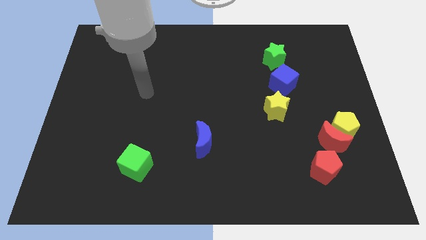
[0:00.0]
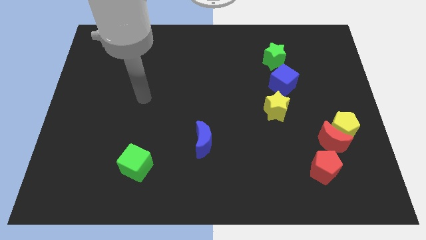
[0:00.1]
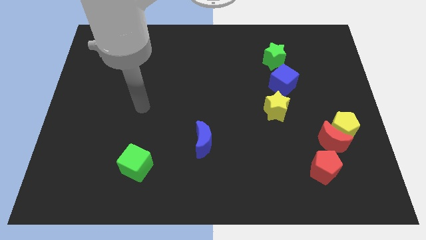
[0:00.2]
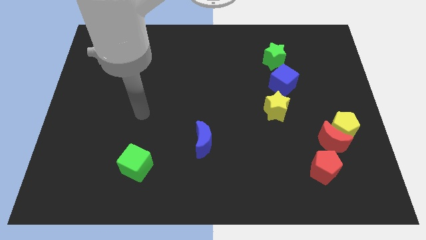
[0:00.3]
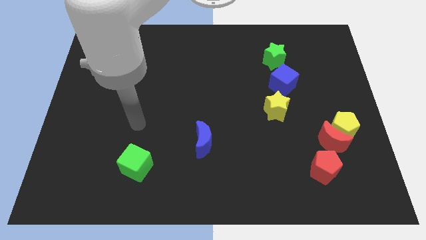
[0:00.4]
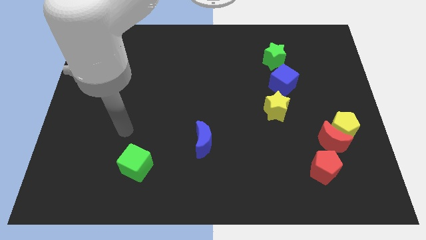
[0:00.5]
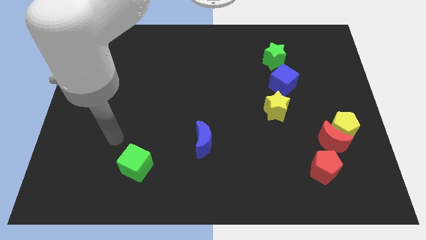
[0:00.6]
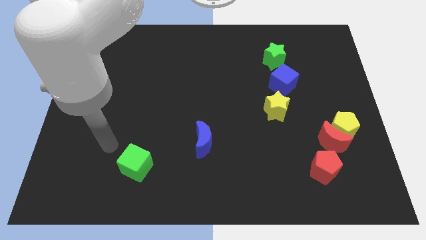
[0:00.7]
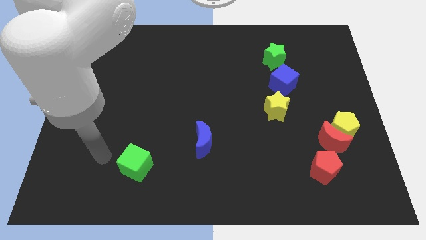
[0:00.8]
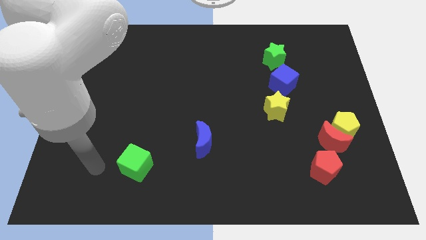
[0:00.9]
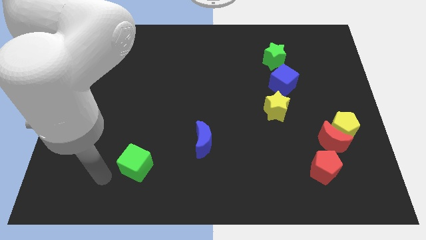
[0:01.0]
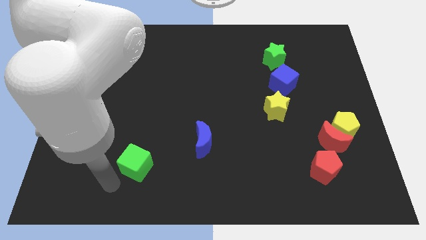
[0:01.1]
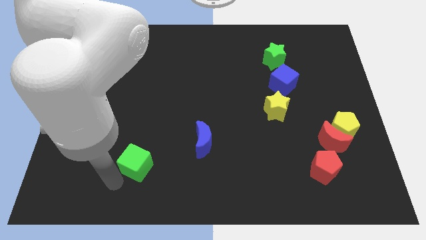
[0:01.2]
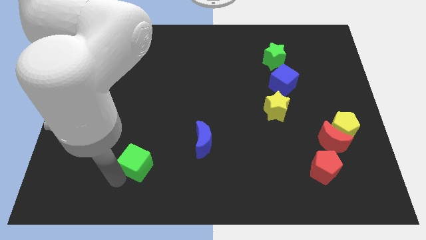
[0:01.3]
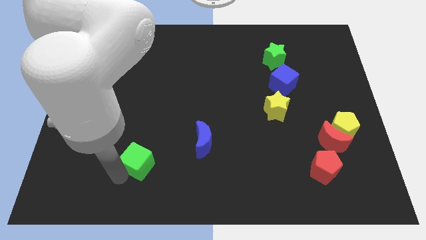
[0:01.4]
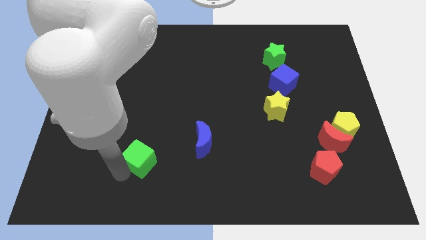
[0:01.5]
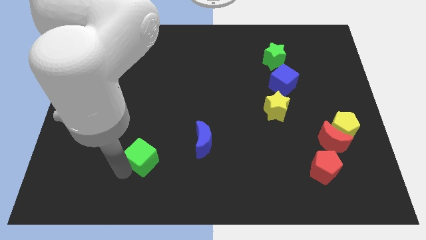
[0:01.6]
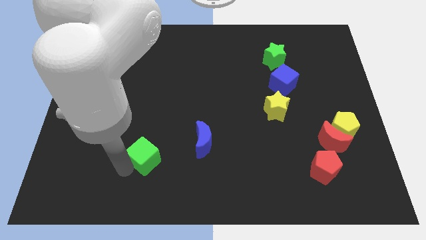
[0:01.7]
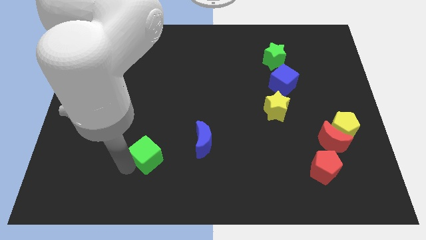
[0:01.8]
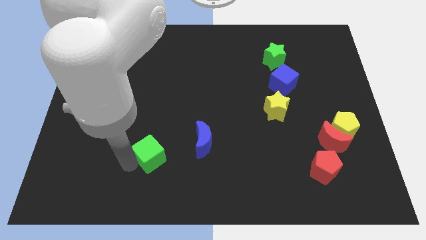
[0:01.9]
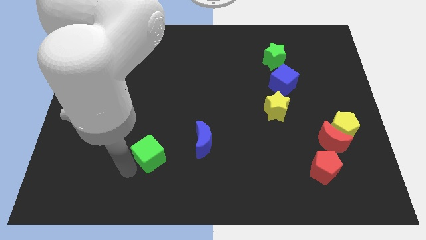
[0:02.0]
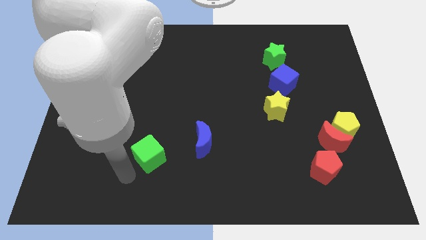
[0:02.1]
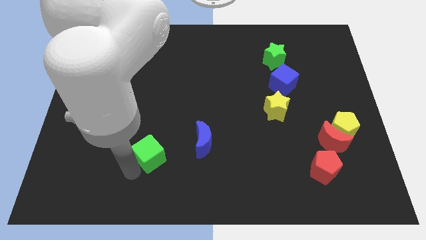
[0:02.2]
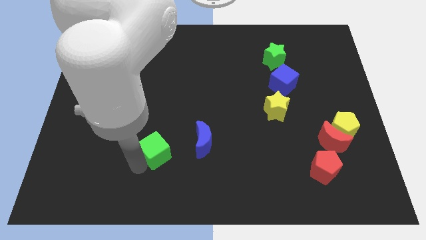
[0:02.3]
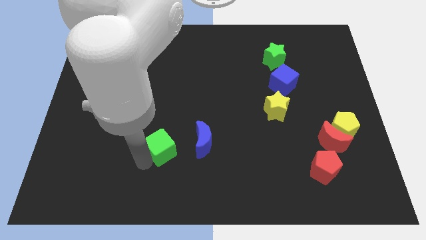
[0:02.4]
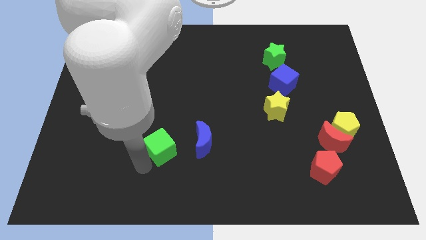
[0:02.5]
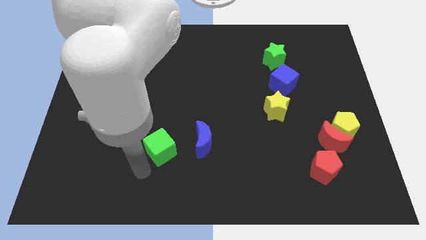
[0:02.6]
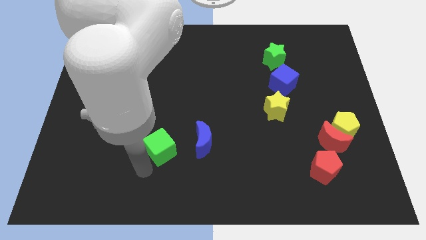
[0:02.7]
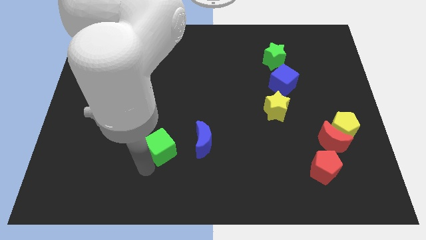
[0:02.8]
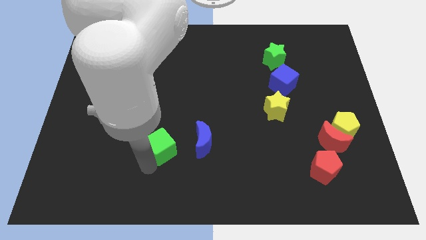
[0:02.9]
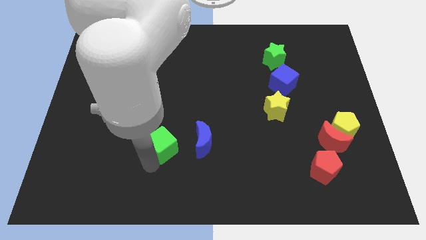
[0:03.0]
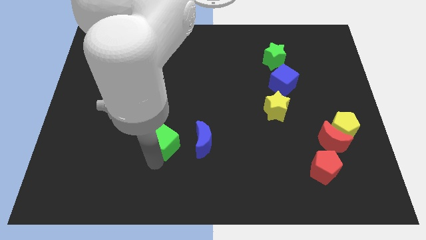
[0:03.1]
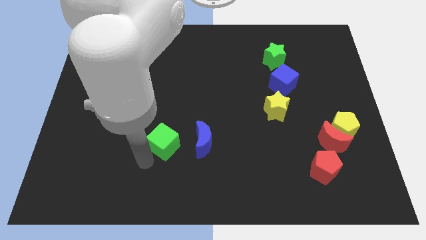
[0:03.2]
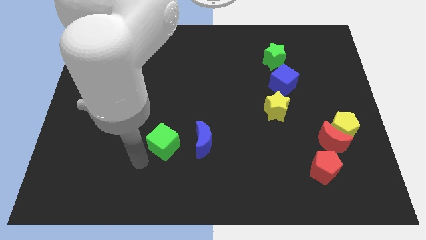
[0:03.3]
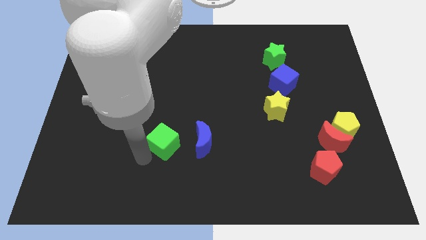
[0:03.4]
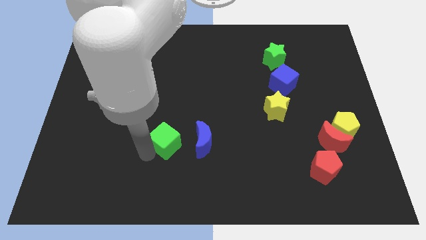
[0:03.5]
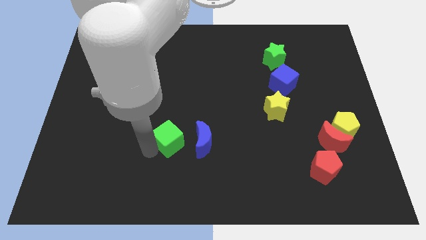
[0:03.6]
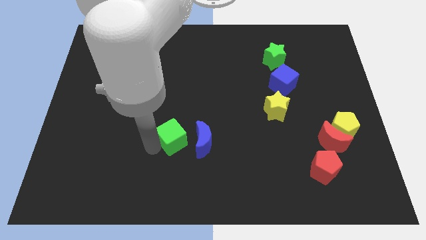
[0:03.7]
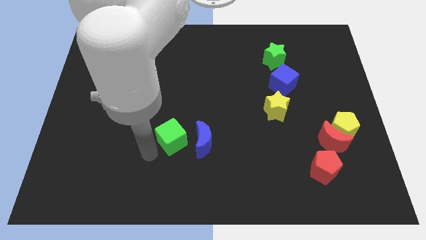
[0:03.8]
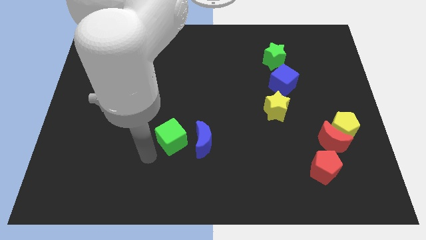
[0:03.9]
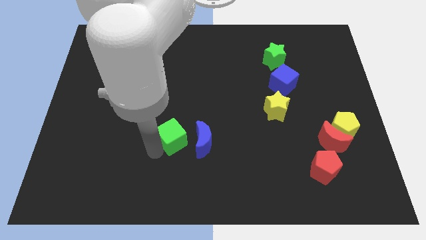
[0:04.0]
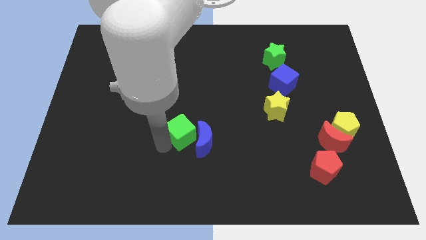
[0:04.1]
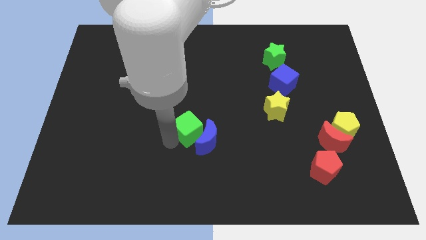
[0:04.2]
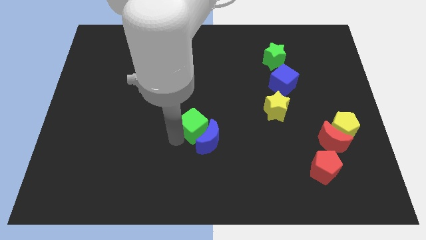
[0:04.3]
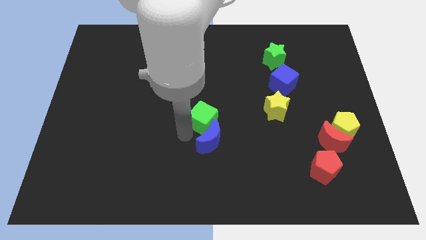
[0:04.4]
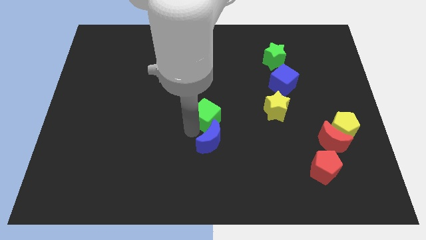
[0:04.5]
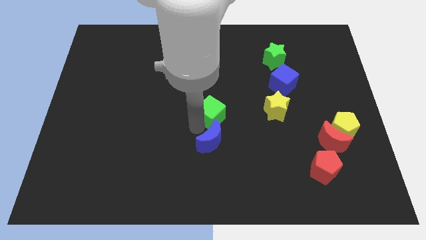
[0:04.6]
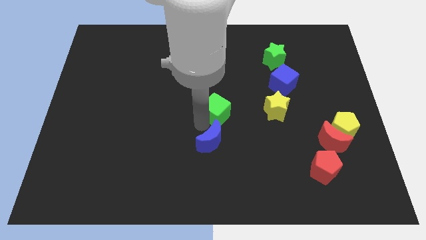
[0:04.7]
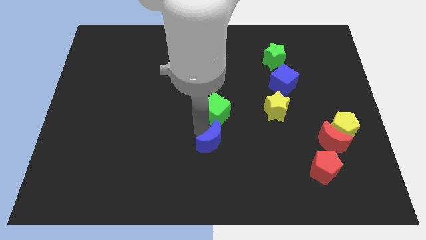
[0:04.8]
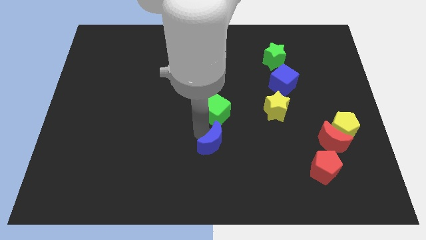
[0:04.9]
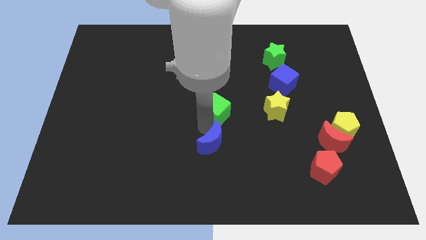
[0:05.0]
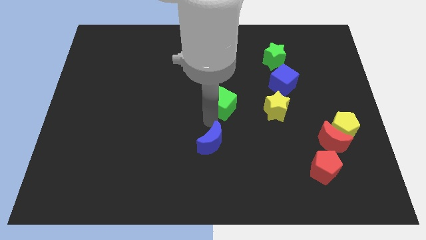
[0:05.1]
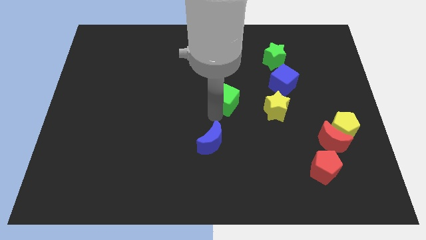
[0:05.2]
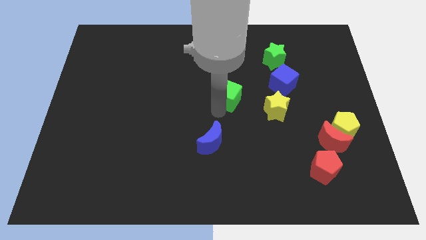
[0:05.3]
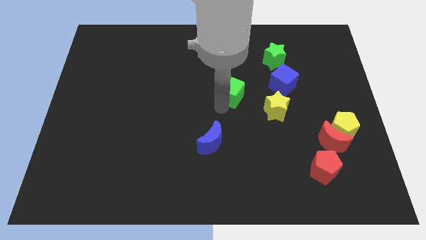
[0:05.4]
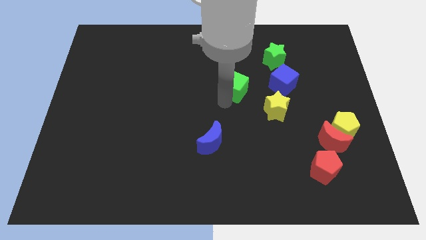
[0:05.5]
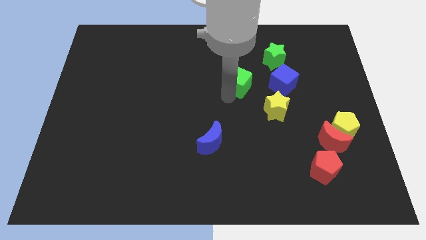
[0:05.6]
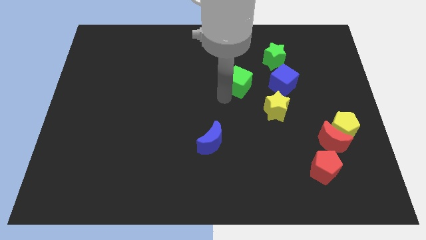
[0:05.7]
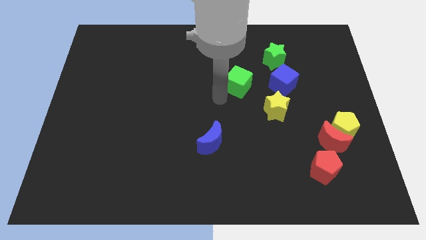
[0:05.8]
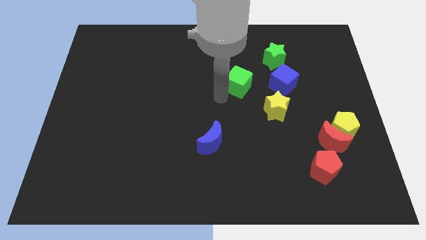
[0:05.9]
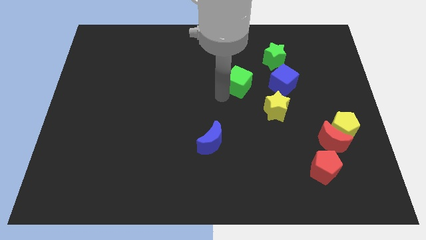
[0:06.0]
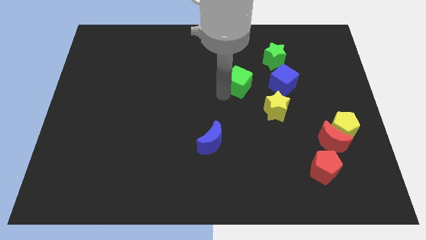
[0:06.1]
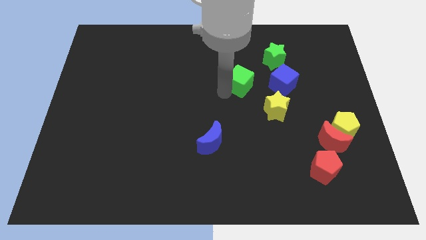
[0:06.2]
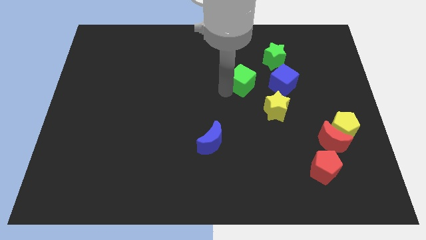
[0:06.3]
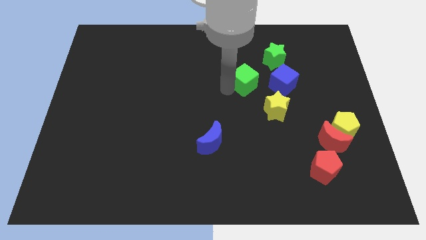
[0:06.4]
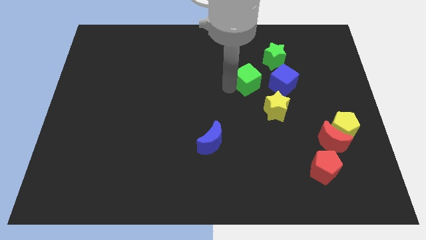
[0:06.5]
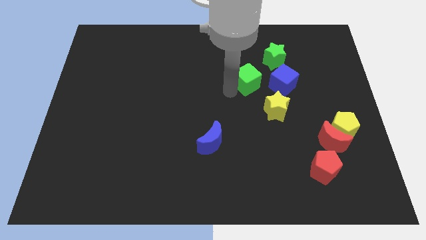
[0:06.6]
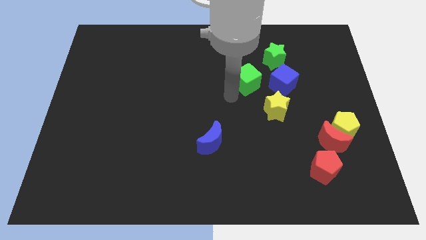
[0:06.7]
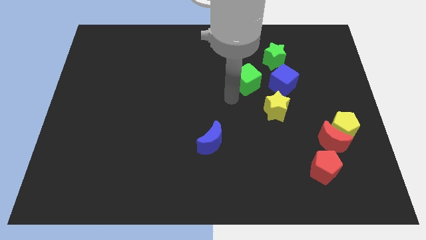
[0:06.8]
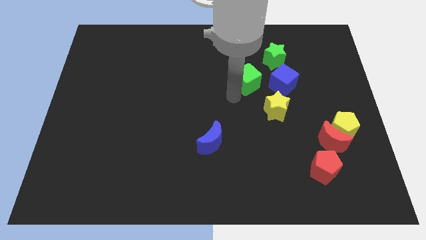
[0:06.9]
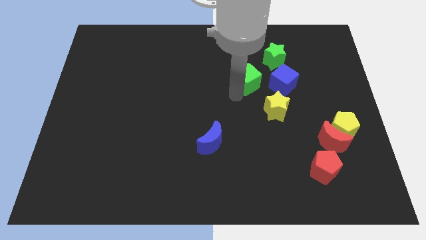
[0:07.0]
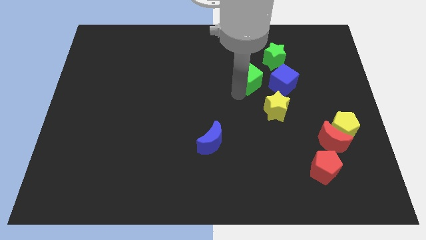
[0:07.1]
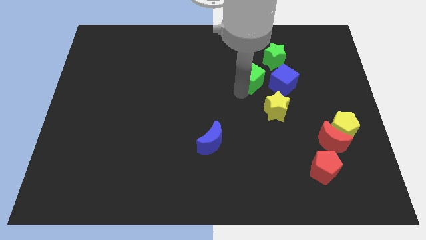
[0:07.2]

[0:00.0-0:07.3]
slide the green cube diagonally up and to the left of the blue cube
